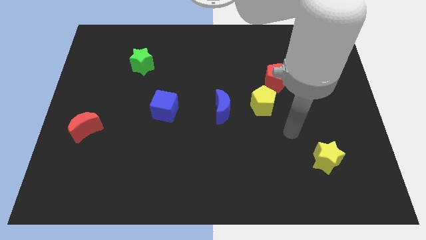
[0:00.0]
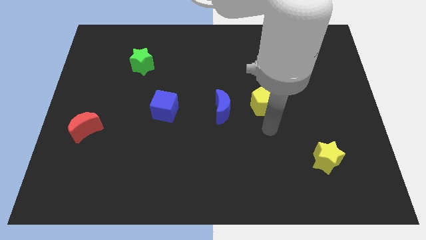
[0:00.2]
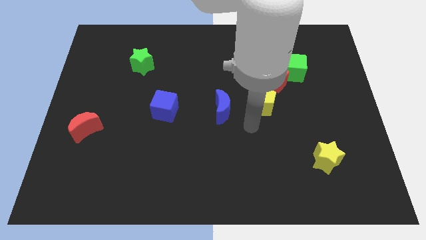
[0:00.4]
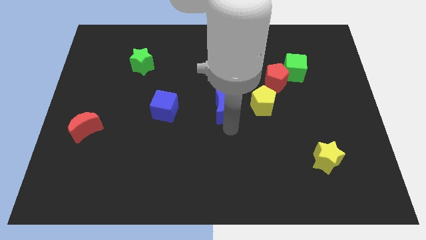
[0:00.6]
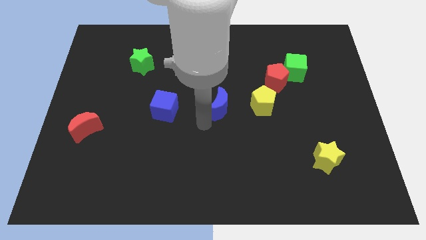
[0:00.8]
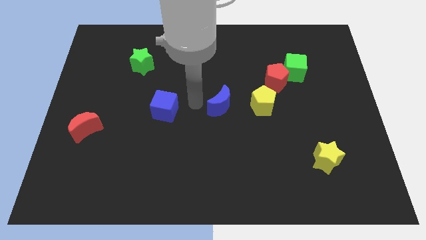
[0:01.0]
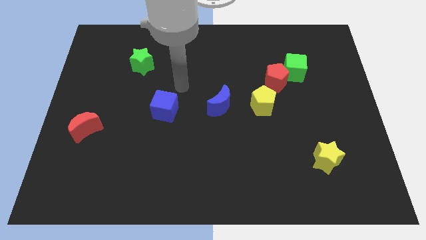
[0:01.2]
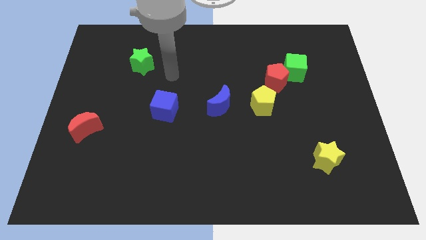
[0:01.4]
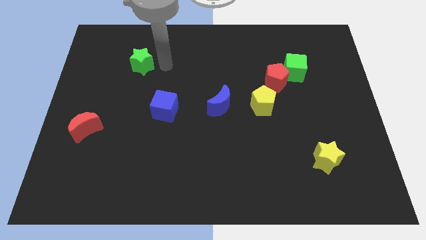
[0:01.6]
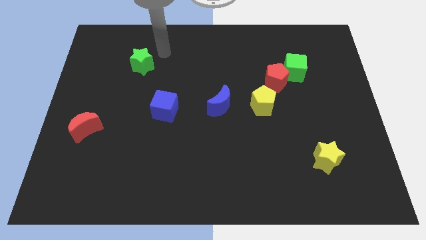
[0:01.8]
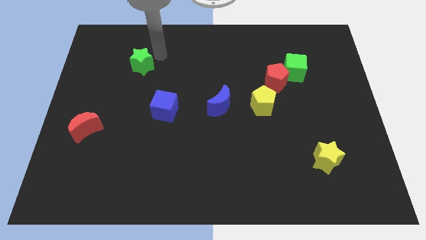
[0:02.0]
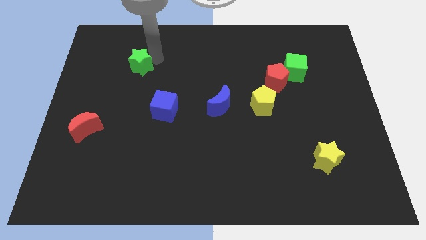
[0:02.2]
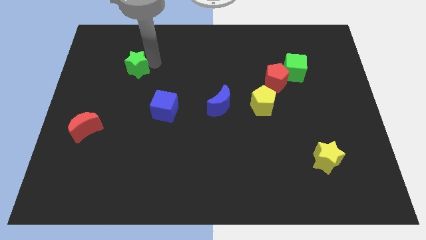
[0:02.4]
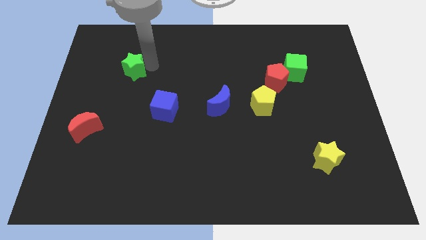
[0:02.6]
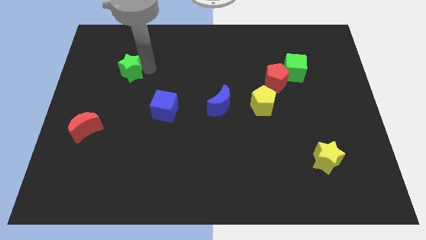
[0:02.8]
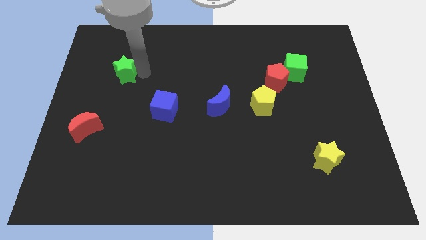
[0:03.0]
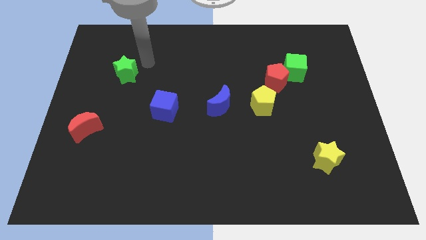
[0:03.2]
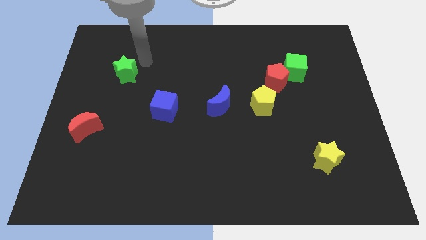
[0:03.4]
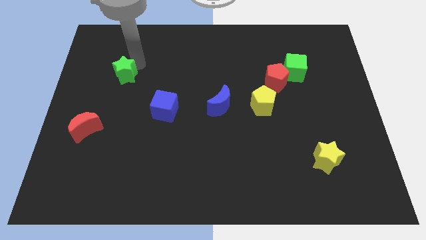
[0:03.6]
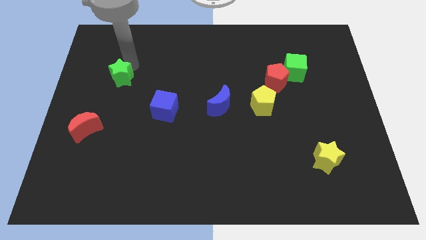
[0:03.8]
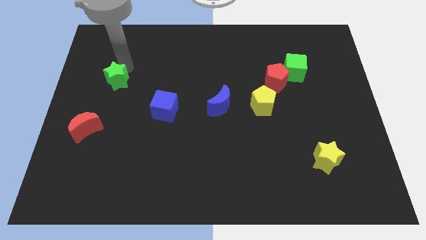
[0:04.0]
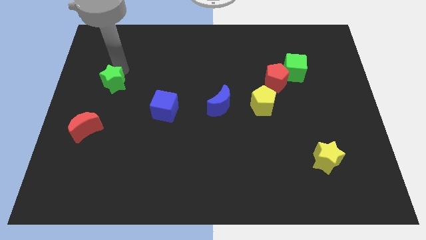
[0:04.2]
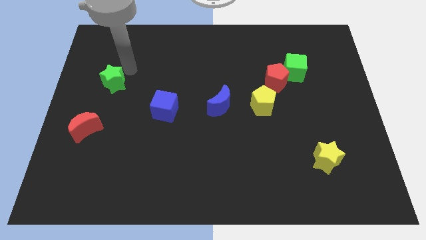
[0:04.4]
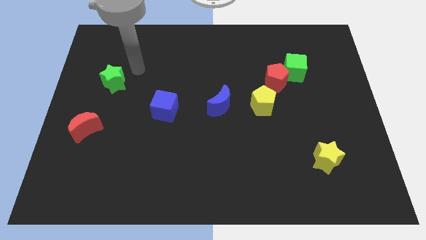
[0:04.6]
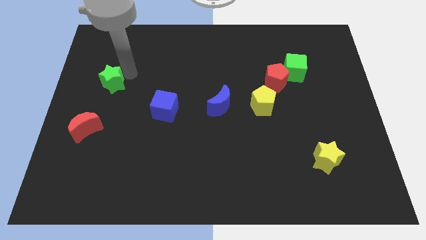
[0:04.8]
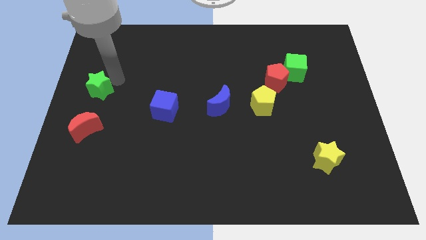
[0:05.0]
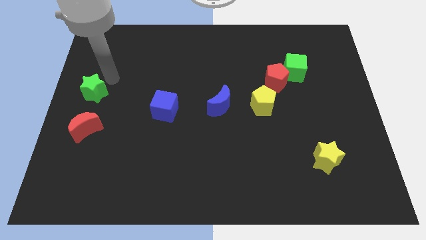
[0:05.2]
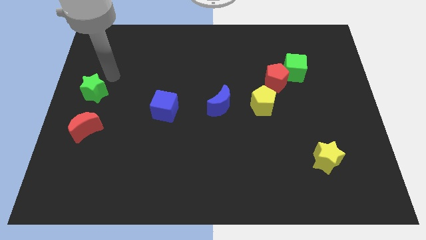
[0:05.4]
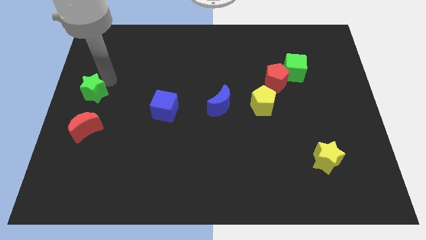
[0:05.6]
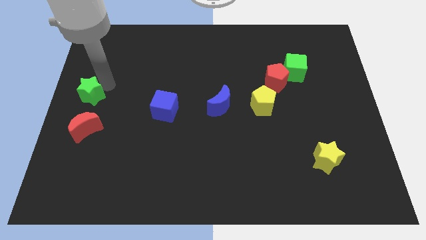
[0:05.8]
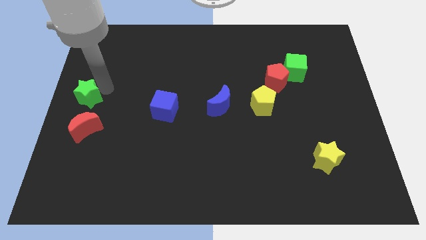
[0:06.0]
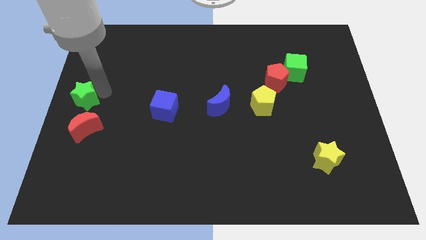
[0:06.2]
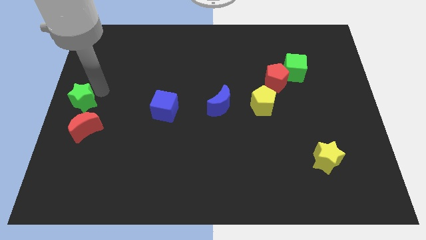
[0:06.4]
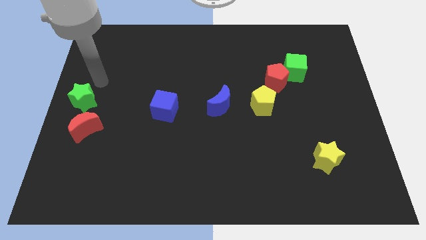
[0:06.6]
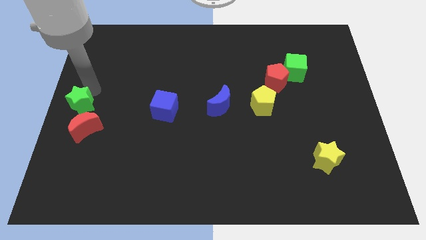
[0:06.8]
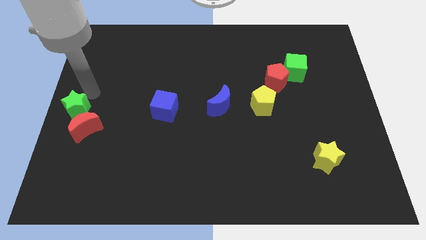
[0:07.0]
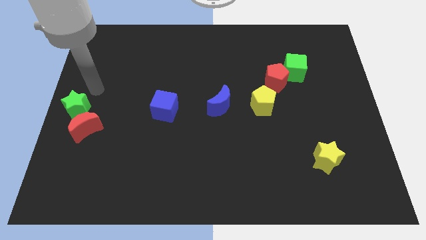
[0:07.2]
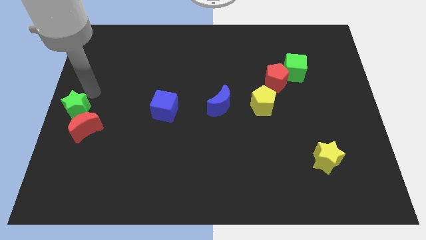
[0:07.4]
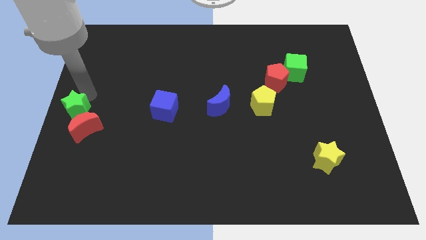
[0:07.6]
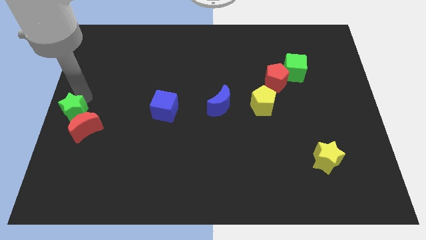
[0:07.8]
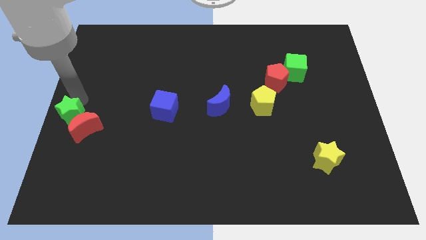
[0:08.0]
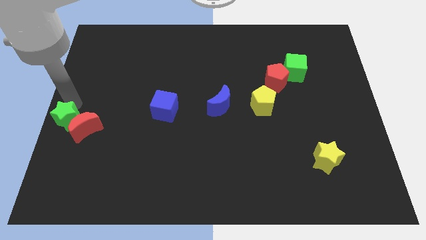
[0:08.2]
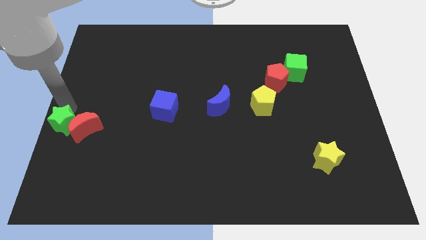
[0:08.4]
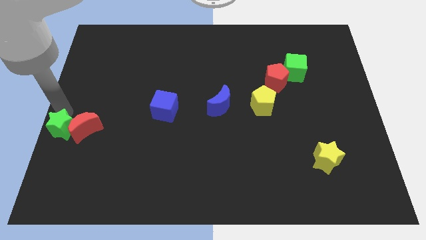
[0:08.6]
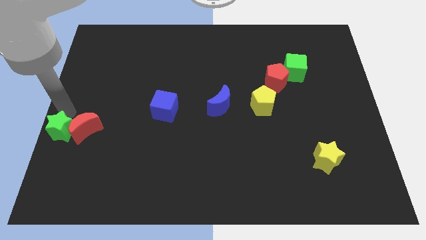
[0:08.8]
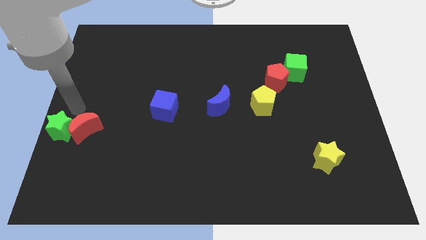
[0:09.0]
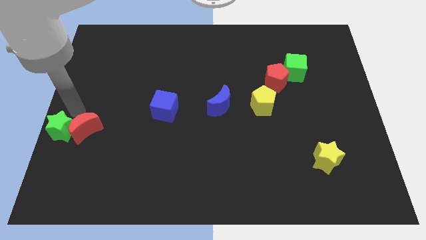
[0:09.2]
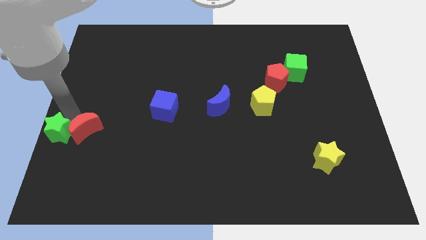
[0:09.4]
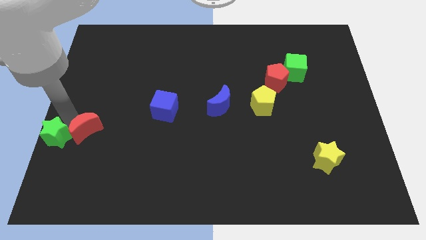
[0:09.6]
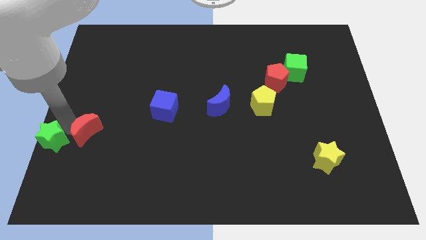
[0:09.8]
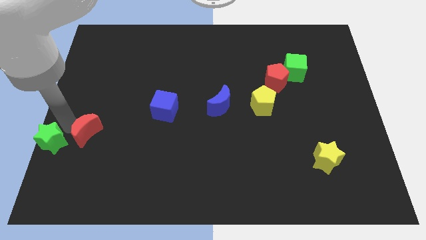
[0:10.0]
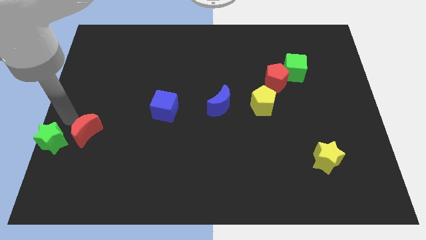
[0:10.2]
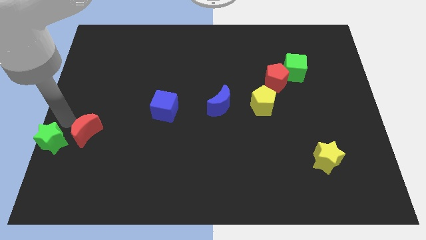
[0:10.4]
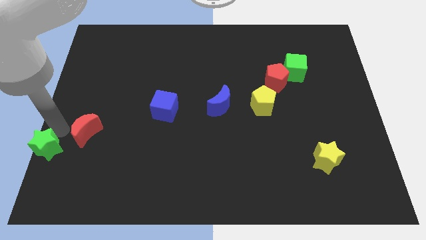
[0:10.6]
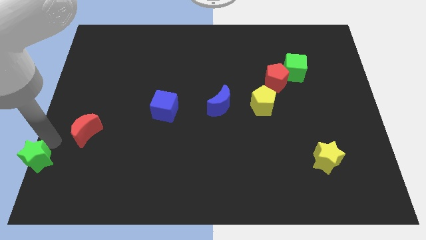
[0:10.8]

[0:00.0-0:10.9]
slide the green star to the bottom left corner

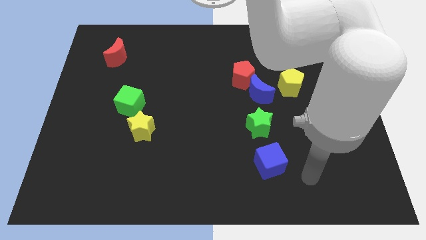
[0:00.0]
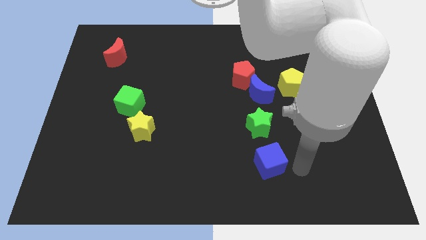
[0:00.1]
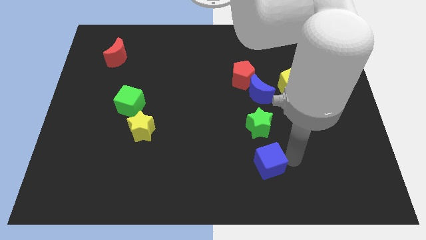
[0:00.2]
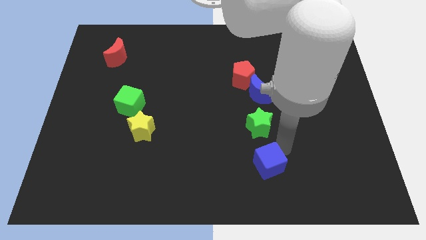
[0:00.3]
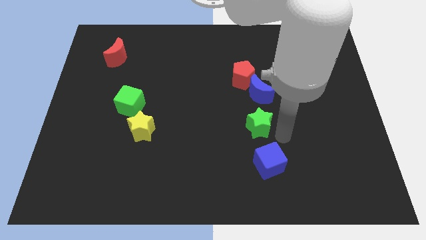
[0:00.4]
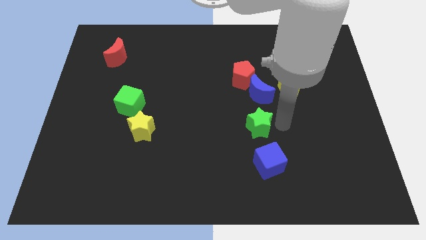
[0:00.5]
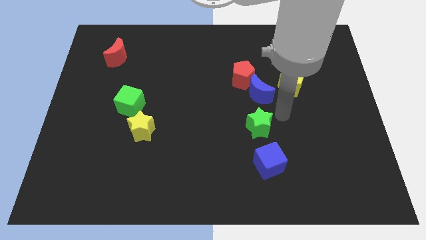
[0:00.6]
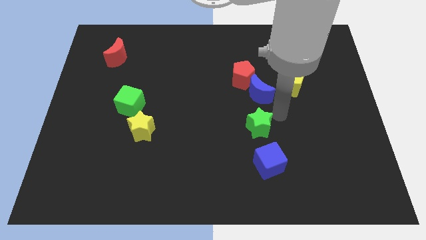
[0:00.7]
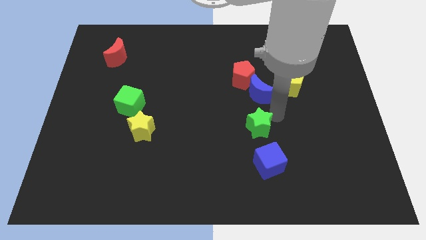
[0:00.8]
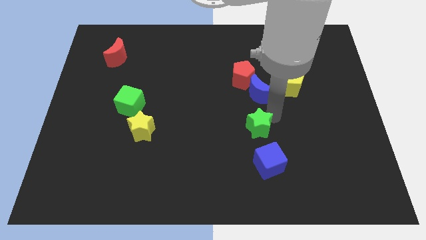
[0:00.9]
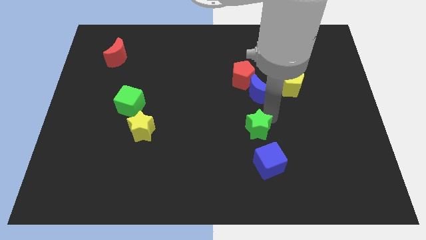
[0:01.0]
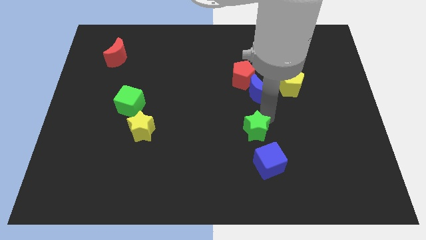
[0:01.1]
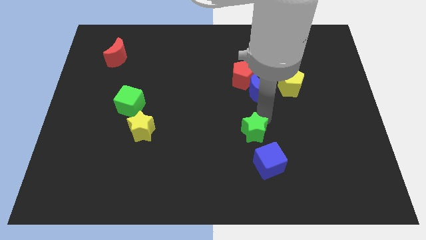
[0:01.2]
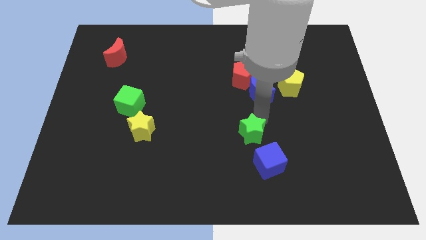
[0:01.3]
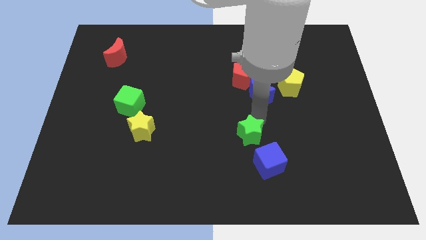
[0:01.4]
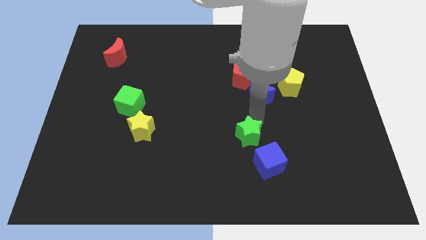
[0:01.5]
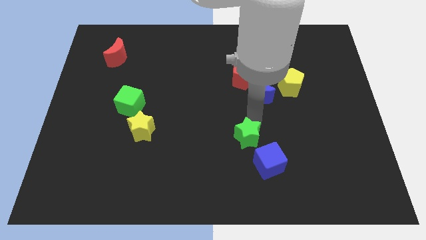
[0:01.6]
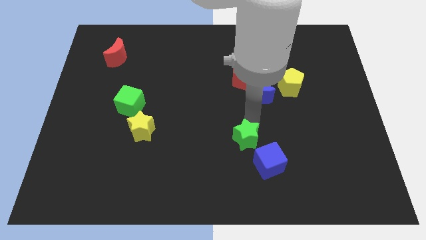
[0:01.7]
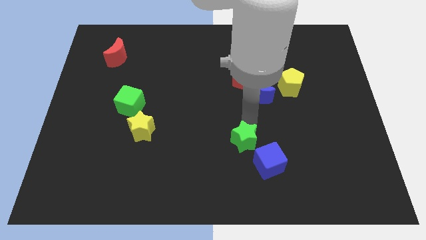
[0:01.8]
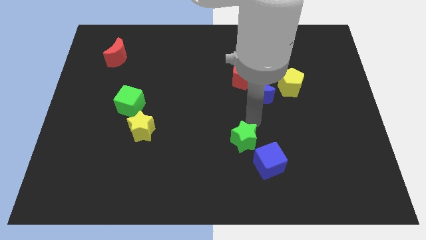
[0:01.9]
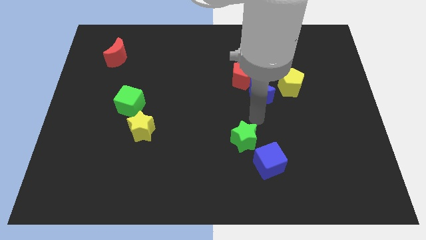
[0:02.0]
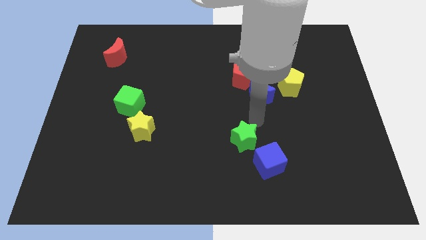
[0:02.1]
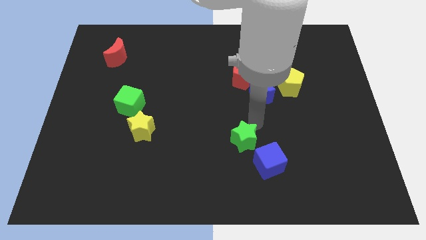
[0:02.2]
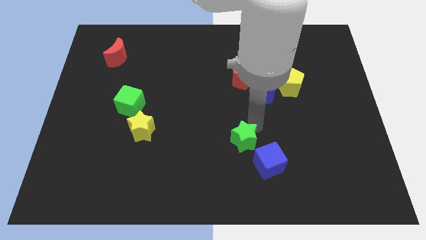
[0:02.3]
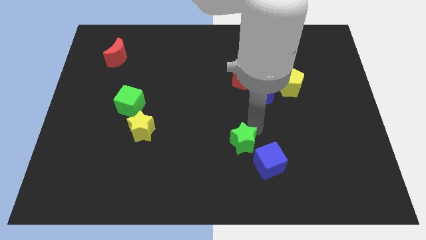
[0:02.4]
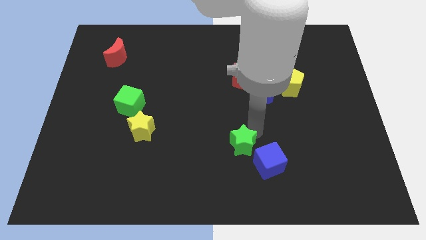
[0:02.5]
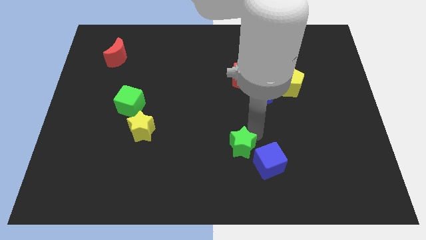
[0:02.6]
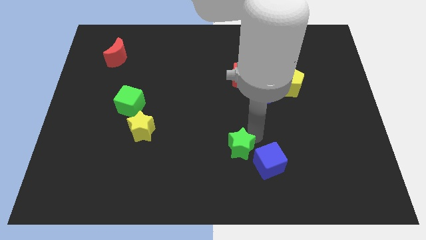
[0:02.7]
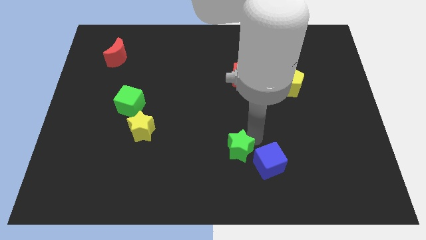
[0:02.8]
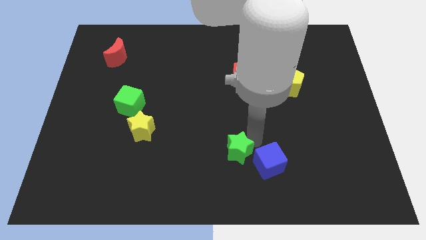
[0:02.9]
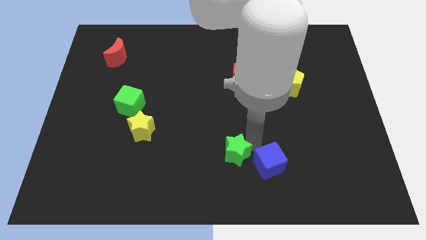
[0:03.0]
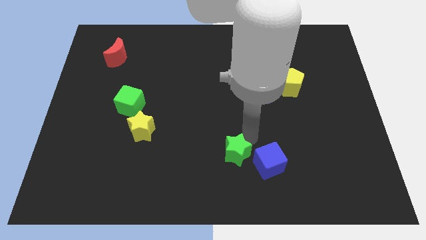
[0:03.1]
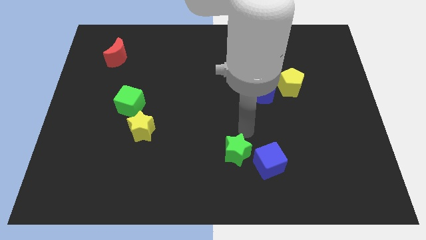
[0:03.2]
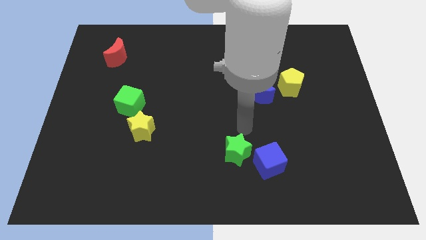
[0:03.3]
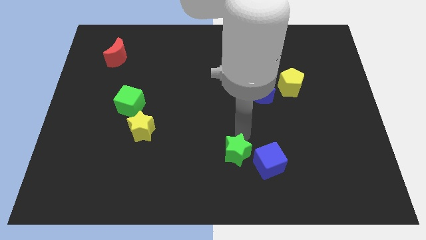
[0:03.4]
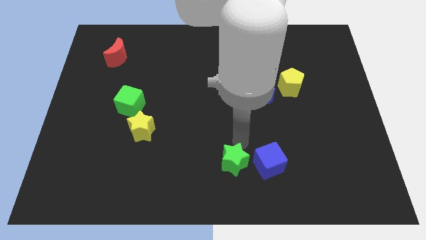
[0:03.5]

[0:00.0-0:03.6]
slide the green star to the bottom side
